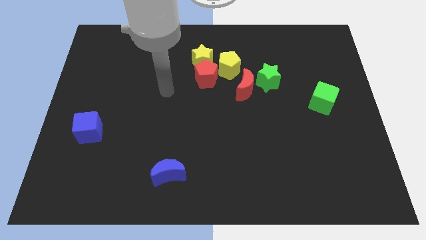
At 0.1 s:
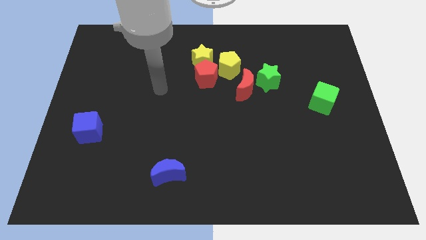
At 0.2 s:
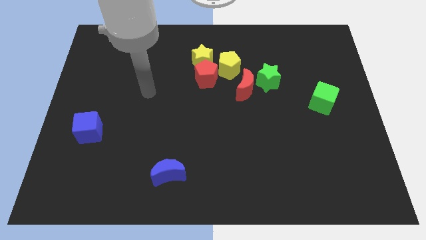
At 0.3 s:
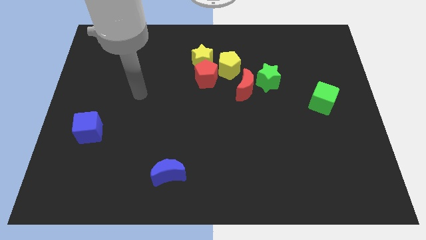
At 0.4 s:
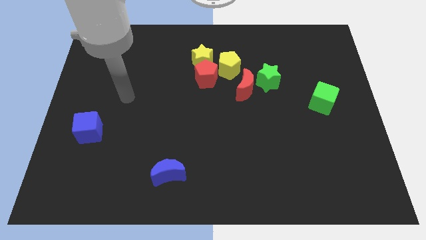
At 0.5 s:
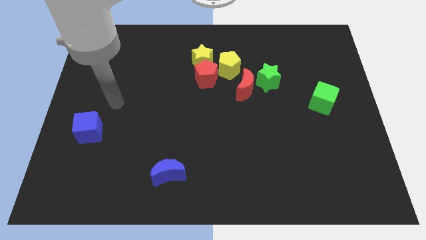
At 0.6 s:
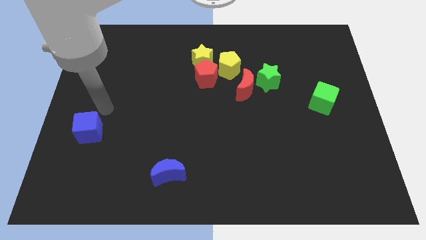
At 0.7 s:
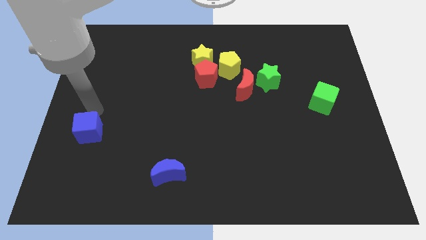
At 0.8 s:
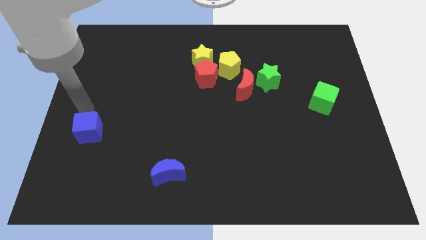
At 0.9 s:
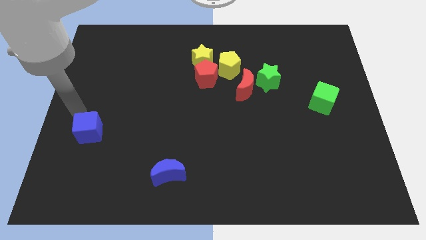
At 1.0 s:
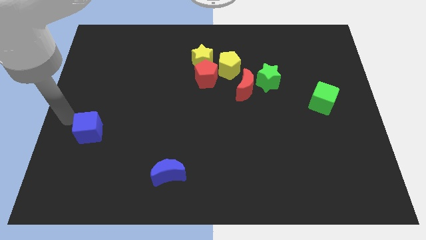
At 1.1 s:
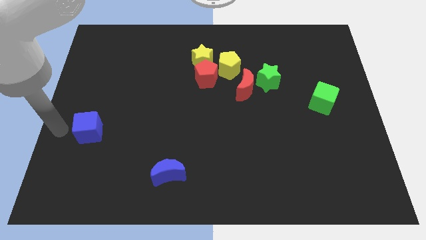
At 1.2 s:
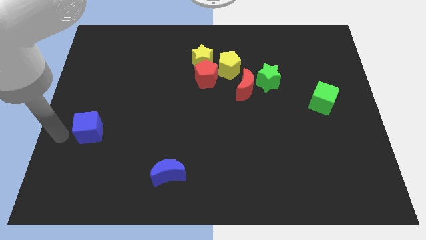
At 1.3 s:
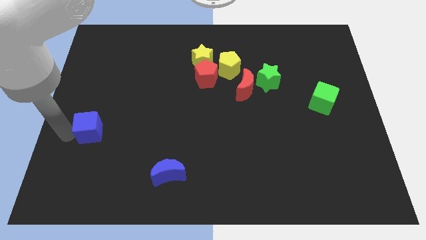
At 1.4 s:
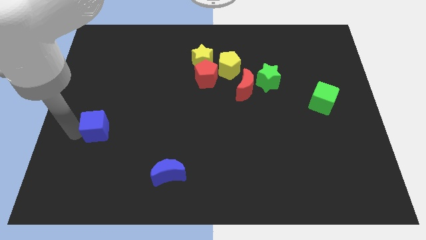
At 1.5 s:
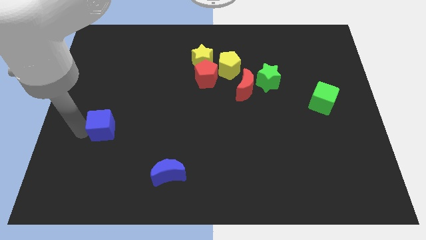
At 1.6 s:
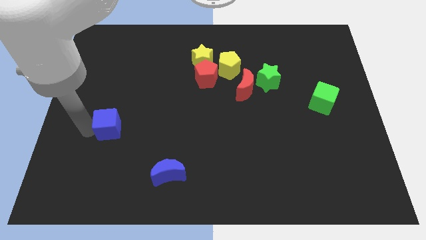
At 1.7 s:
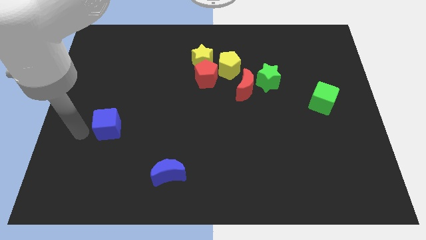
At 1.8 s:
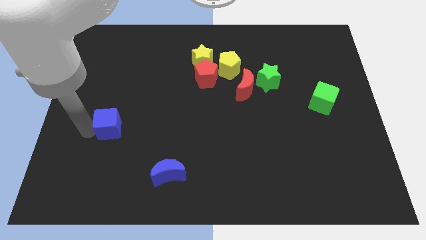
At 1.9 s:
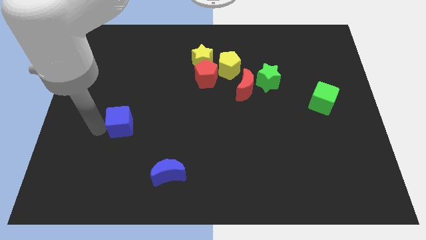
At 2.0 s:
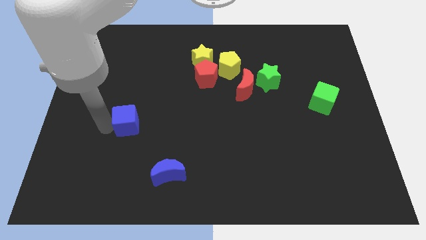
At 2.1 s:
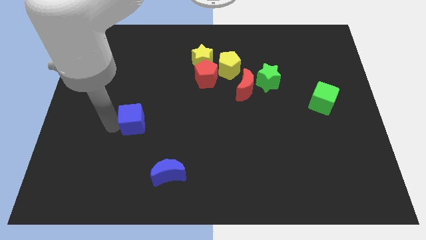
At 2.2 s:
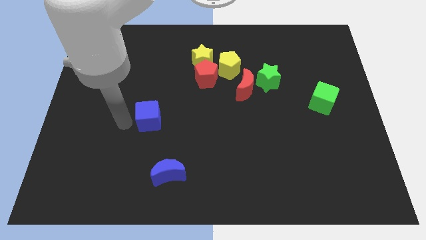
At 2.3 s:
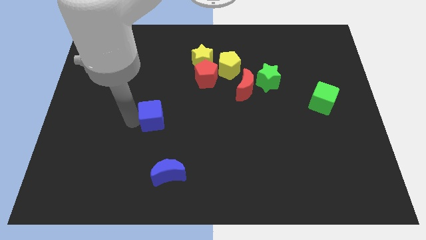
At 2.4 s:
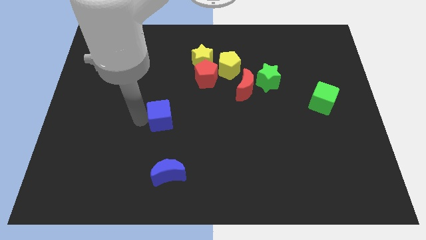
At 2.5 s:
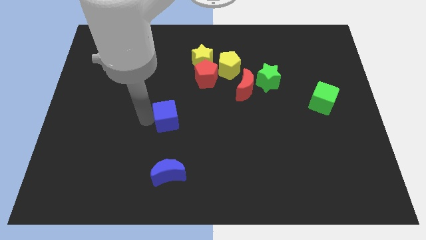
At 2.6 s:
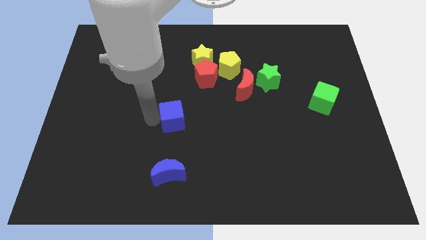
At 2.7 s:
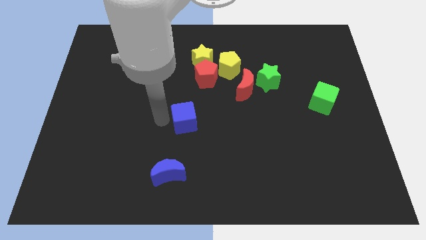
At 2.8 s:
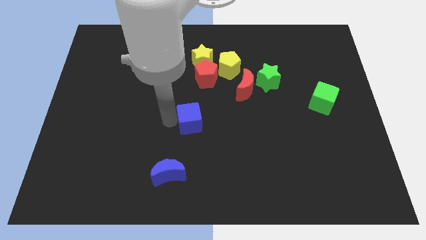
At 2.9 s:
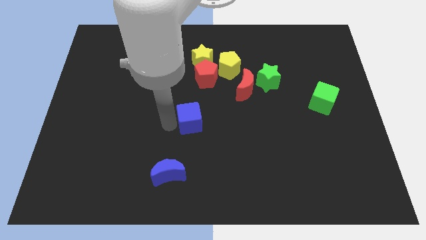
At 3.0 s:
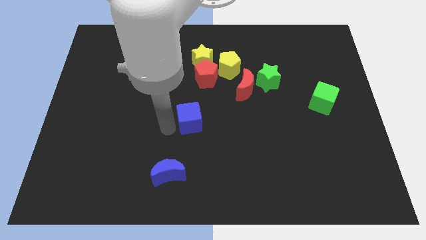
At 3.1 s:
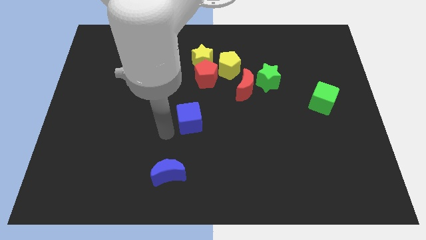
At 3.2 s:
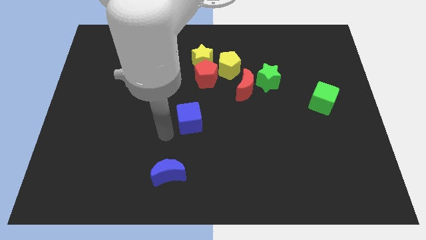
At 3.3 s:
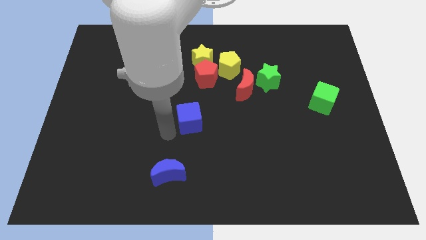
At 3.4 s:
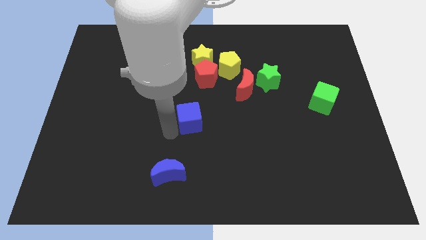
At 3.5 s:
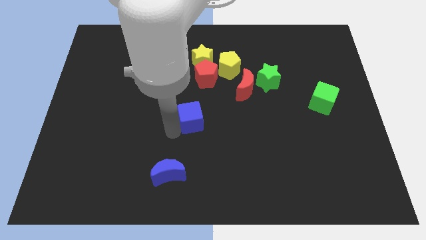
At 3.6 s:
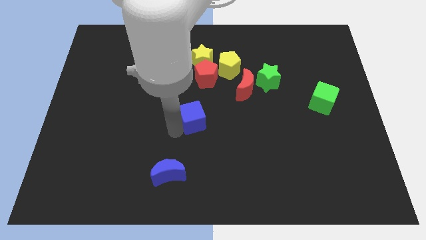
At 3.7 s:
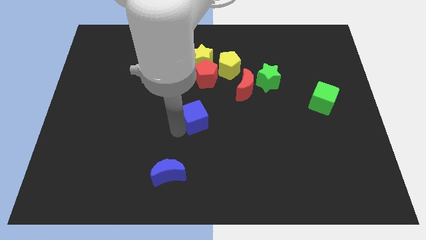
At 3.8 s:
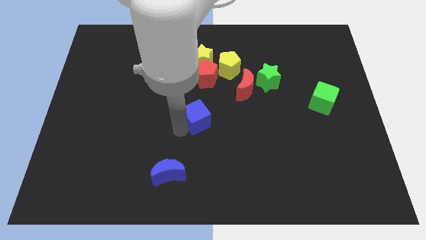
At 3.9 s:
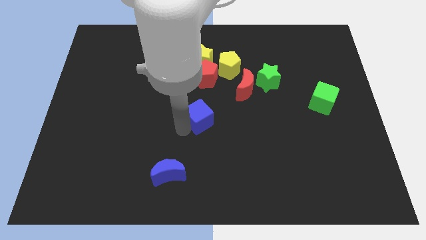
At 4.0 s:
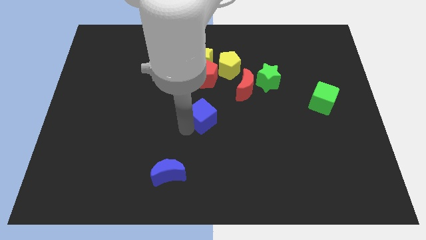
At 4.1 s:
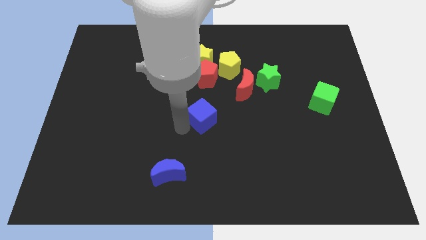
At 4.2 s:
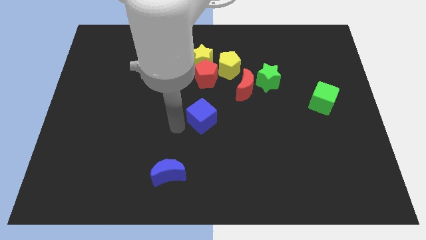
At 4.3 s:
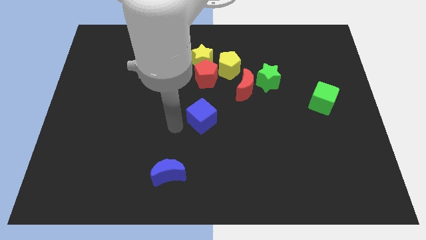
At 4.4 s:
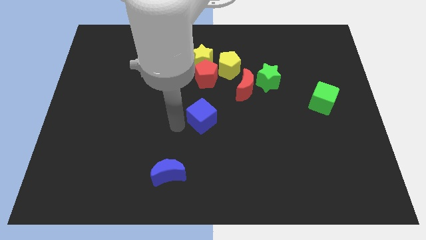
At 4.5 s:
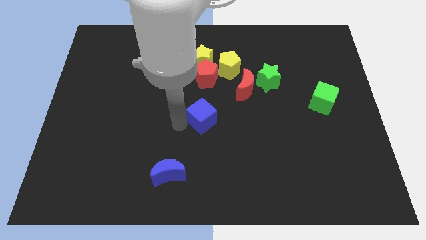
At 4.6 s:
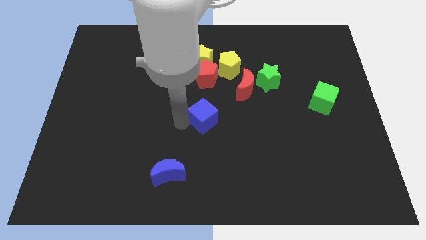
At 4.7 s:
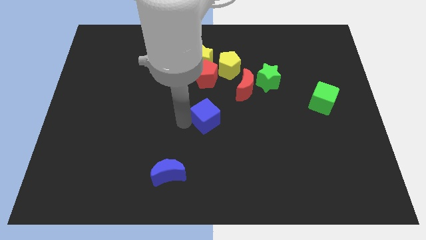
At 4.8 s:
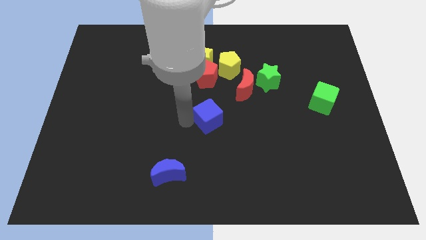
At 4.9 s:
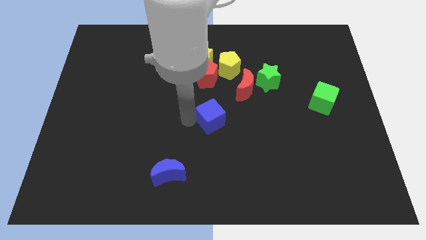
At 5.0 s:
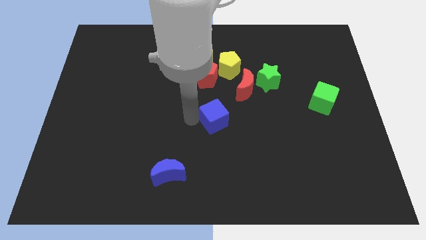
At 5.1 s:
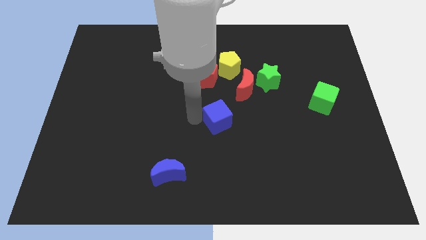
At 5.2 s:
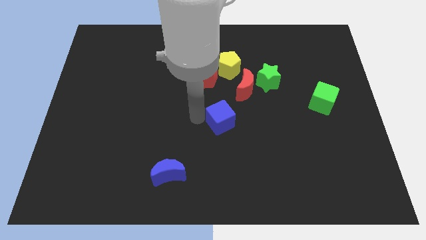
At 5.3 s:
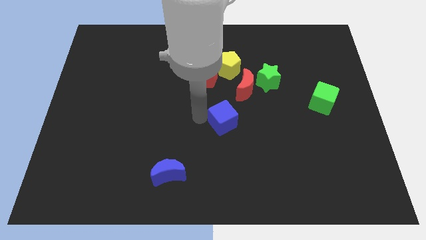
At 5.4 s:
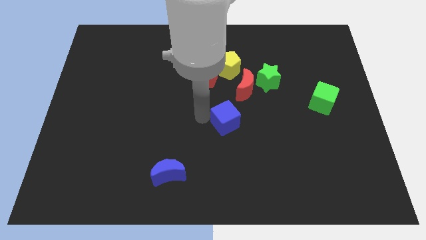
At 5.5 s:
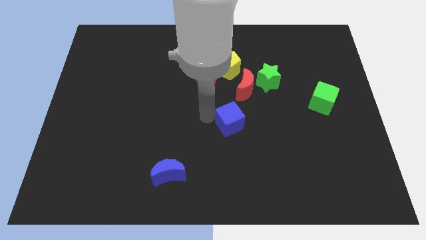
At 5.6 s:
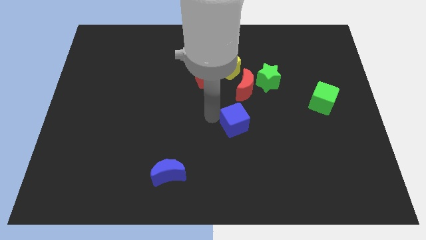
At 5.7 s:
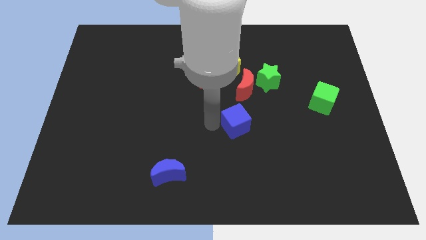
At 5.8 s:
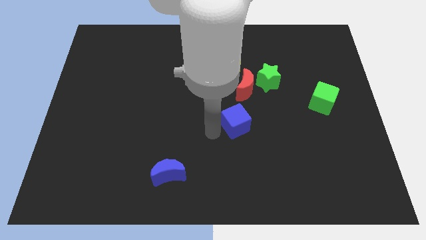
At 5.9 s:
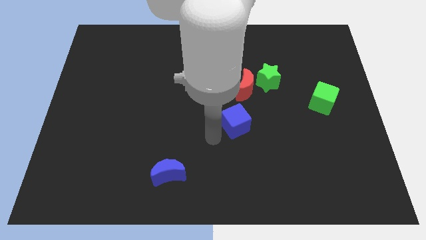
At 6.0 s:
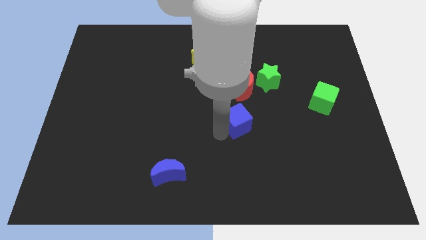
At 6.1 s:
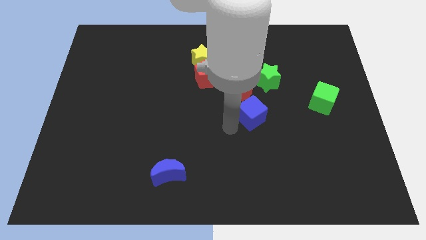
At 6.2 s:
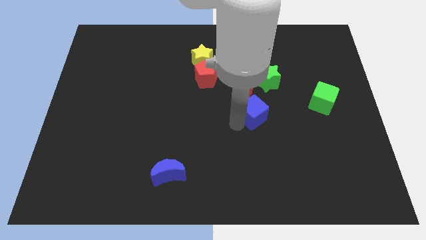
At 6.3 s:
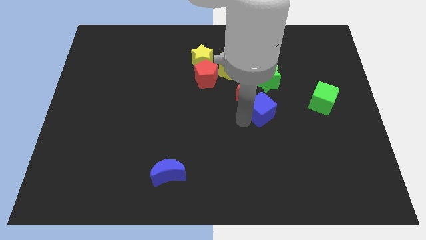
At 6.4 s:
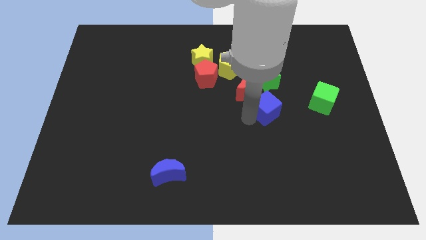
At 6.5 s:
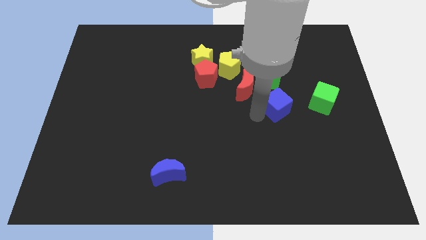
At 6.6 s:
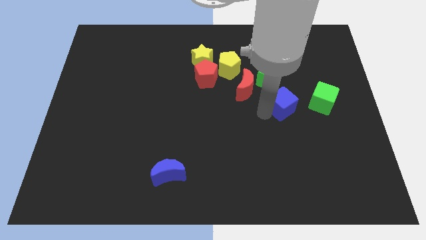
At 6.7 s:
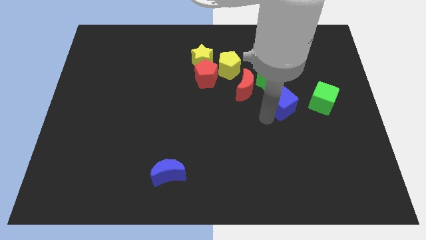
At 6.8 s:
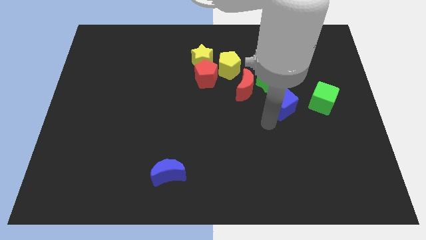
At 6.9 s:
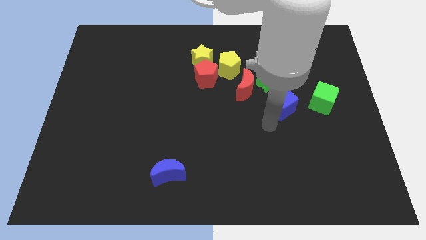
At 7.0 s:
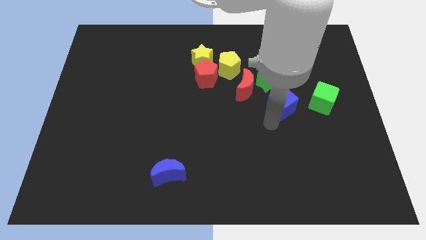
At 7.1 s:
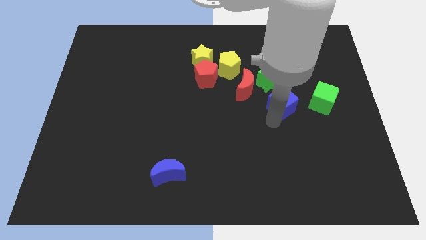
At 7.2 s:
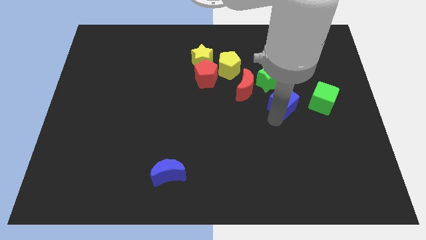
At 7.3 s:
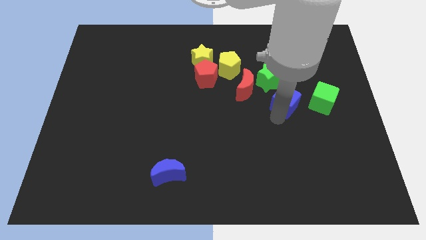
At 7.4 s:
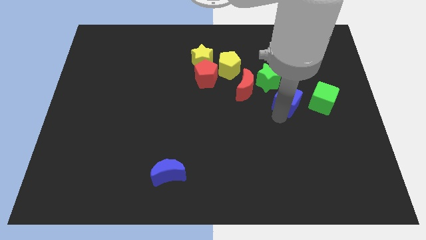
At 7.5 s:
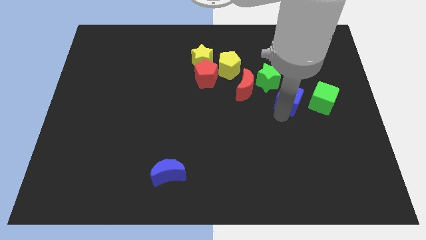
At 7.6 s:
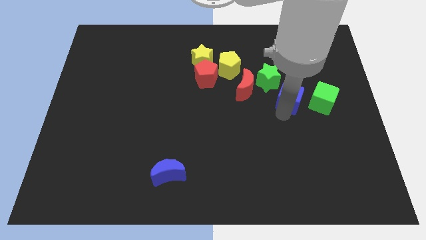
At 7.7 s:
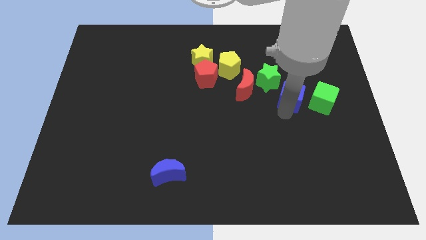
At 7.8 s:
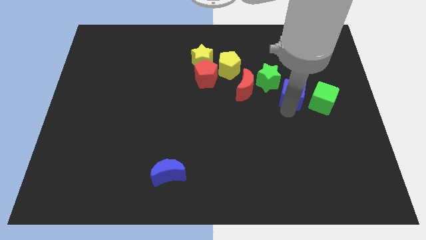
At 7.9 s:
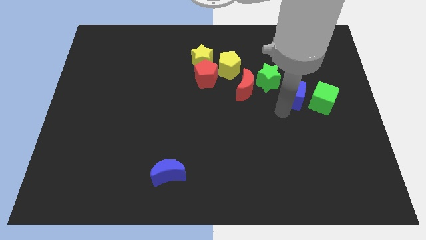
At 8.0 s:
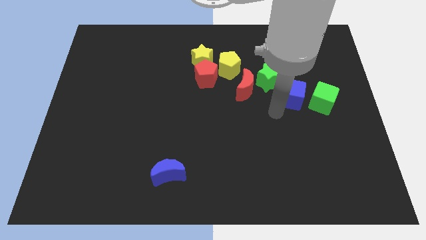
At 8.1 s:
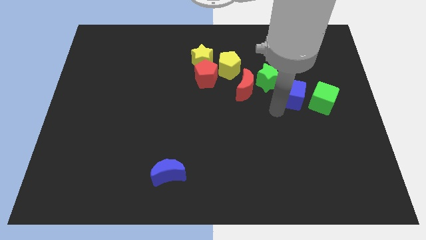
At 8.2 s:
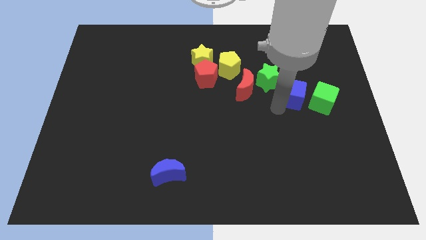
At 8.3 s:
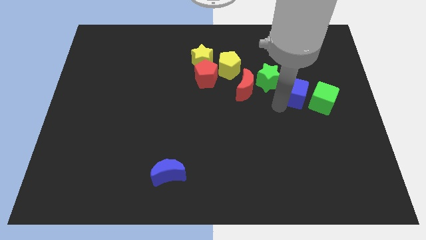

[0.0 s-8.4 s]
put the blue cube right of the green star
